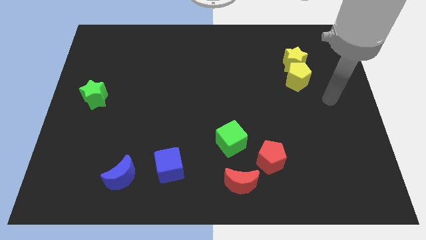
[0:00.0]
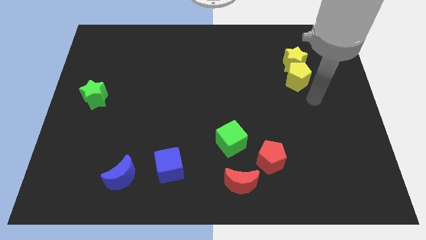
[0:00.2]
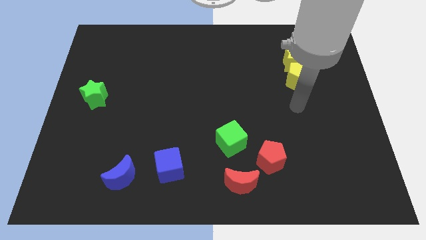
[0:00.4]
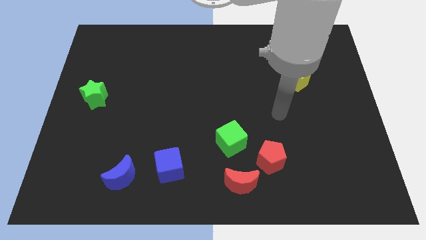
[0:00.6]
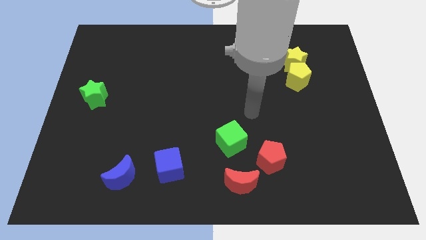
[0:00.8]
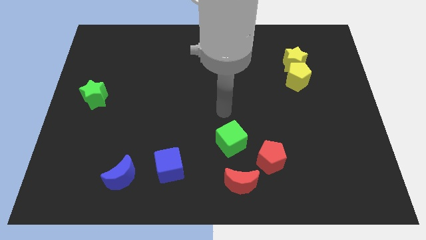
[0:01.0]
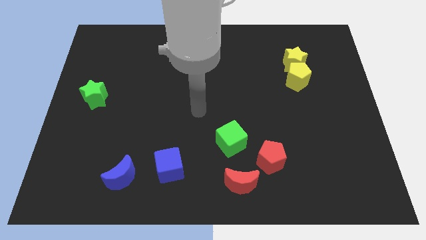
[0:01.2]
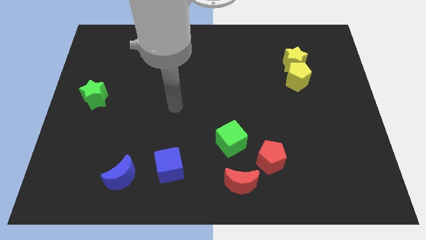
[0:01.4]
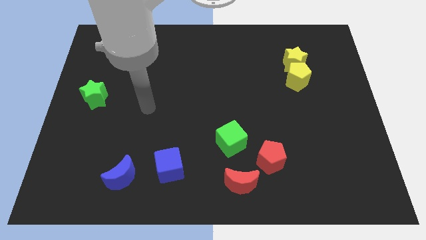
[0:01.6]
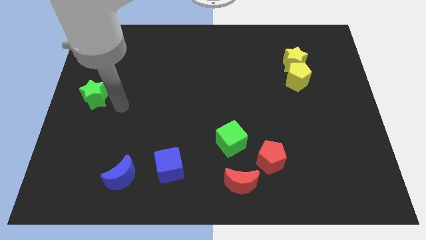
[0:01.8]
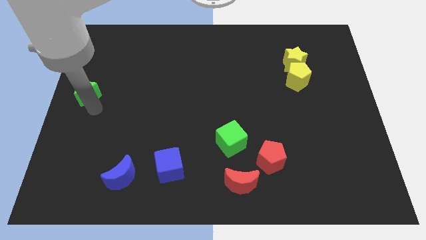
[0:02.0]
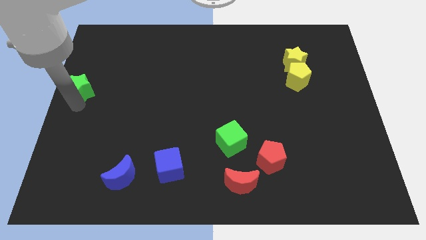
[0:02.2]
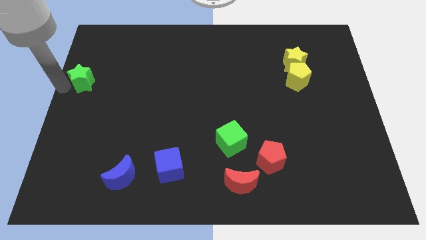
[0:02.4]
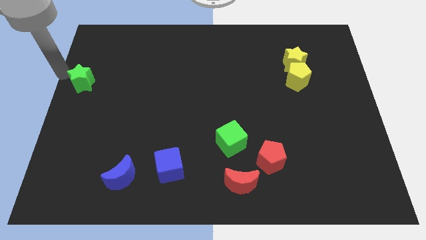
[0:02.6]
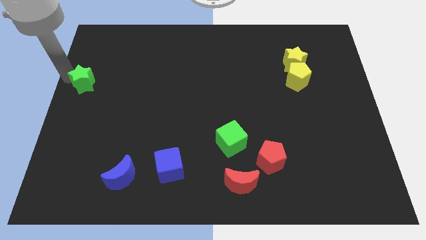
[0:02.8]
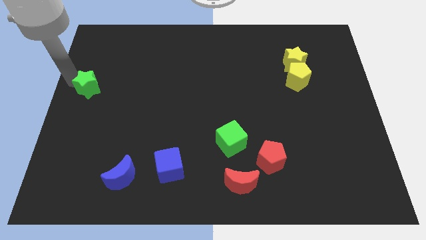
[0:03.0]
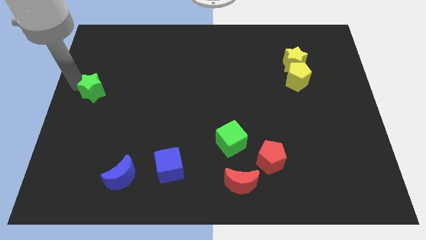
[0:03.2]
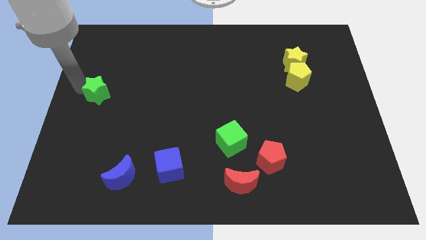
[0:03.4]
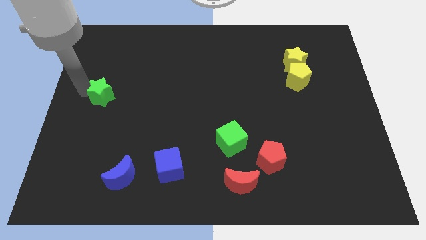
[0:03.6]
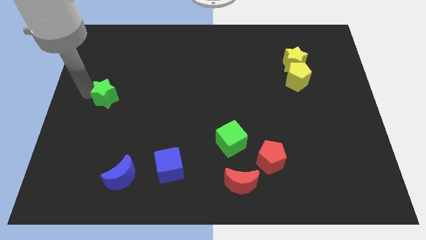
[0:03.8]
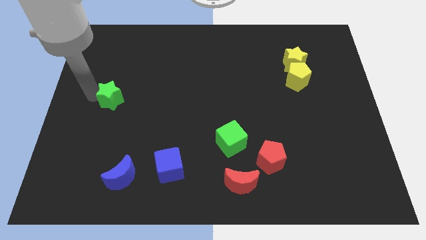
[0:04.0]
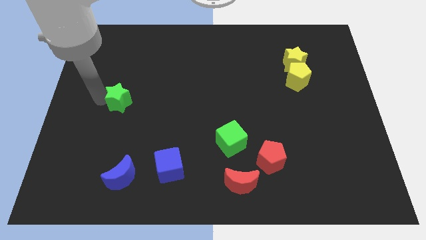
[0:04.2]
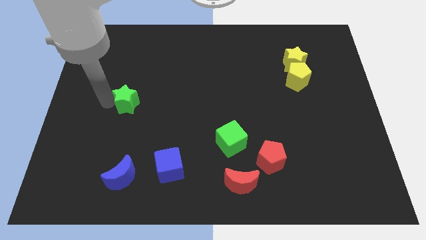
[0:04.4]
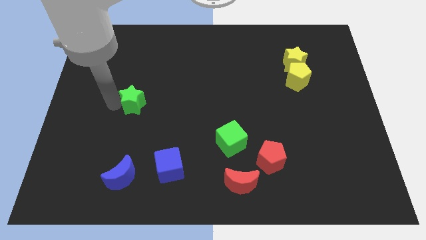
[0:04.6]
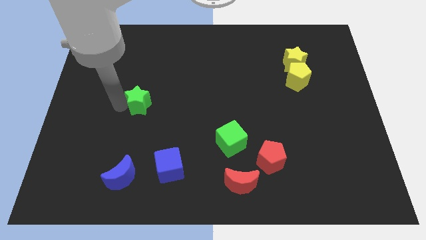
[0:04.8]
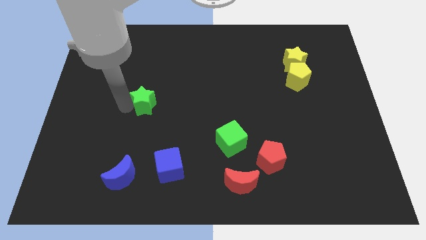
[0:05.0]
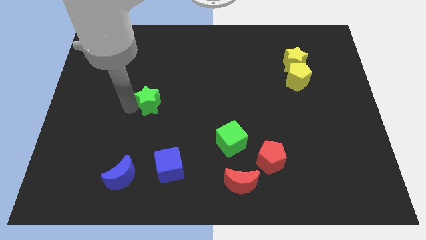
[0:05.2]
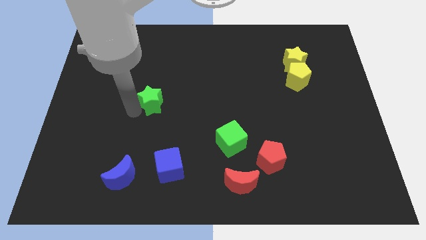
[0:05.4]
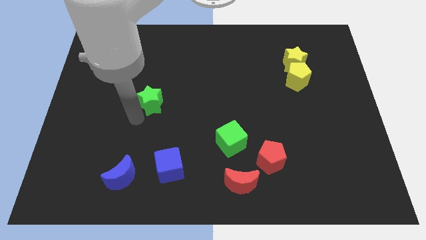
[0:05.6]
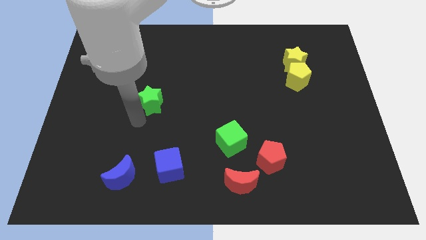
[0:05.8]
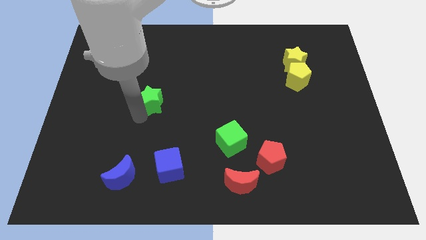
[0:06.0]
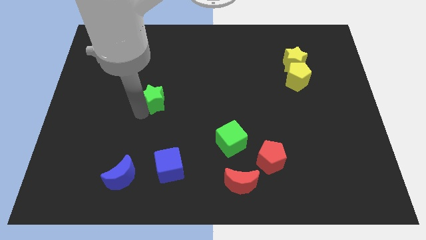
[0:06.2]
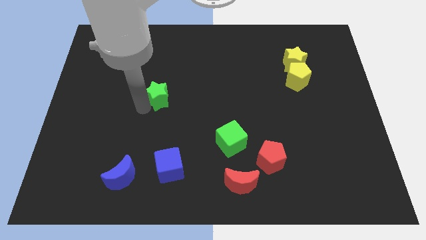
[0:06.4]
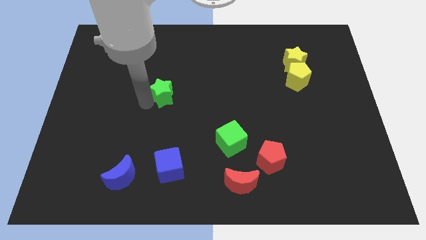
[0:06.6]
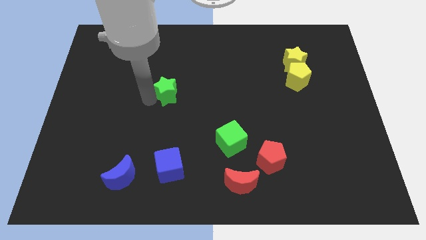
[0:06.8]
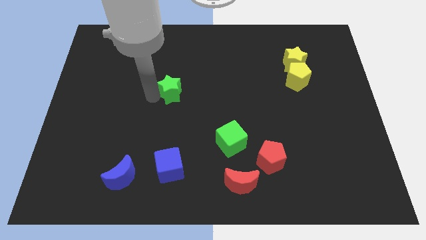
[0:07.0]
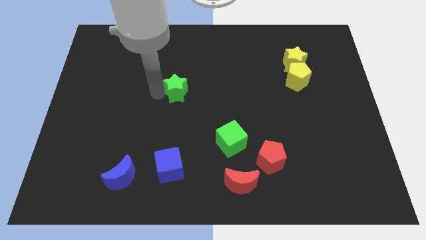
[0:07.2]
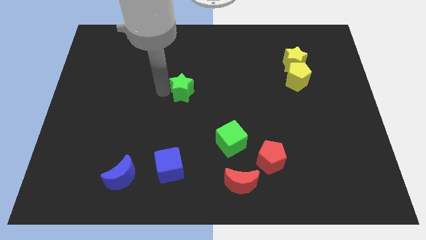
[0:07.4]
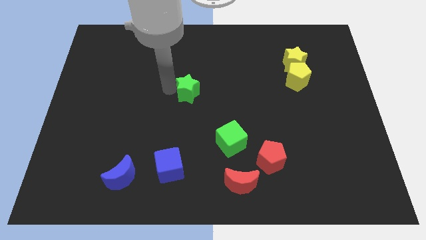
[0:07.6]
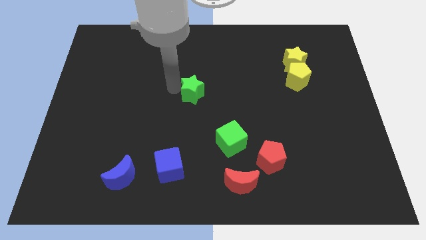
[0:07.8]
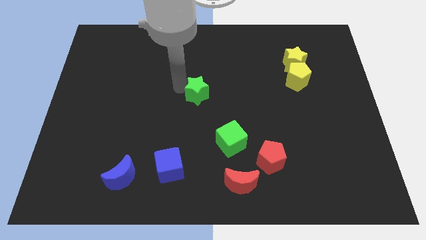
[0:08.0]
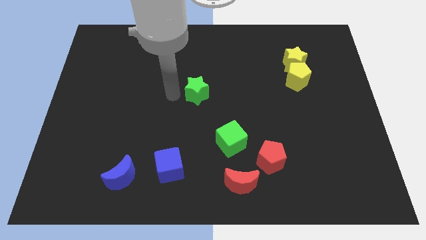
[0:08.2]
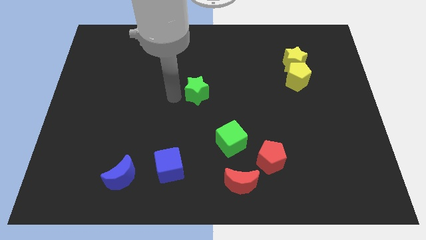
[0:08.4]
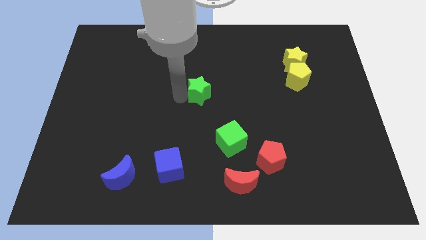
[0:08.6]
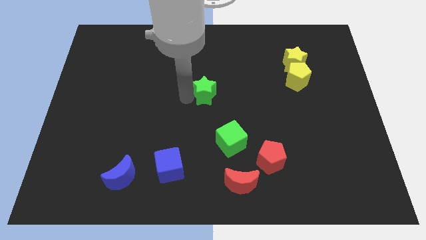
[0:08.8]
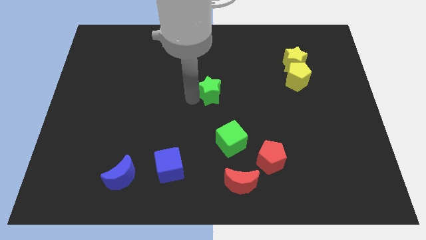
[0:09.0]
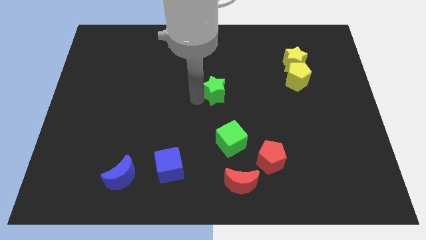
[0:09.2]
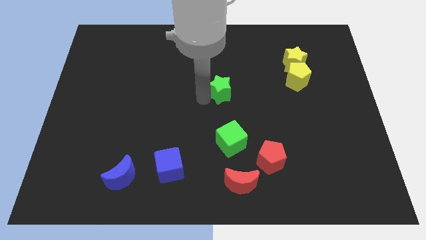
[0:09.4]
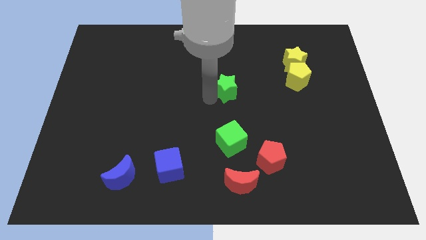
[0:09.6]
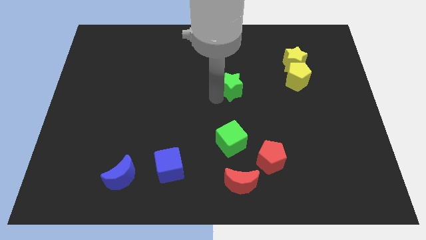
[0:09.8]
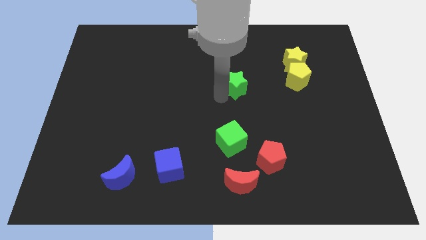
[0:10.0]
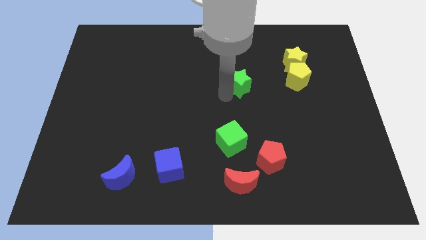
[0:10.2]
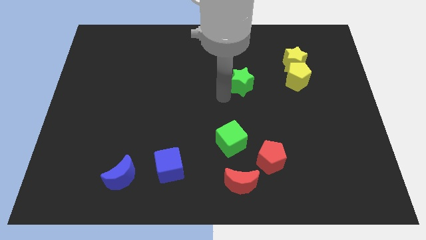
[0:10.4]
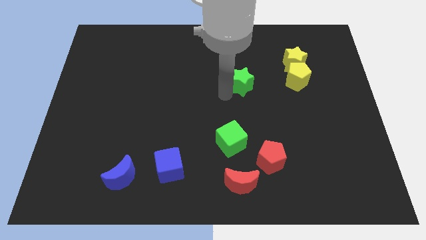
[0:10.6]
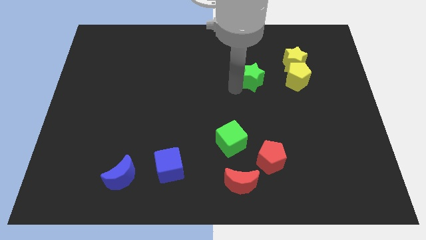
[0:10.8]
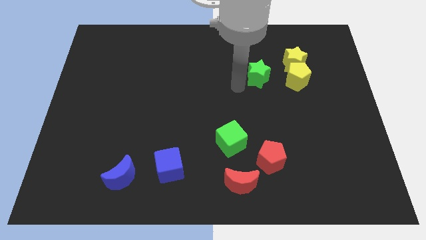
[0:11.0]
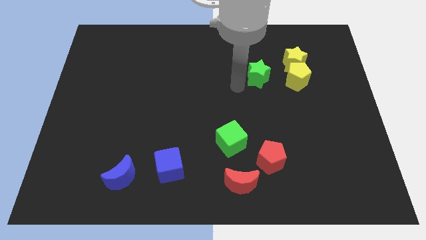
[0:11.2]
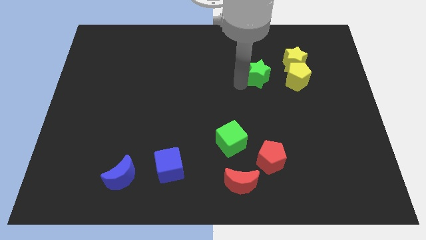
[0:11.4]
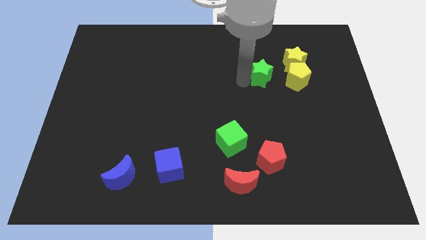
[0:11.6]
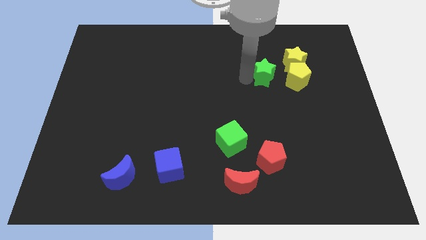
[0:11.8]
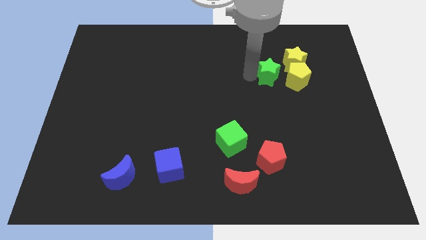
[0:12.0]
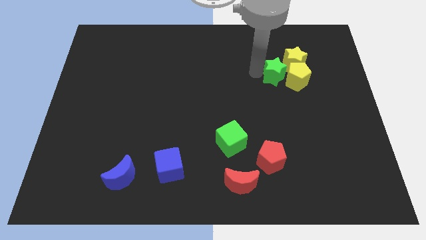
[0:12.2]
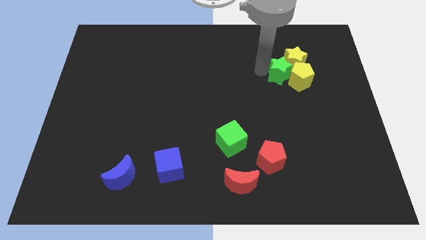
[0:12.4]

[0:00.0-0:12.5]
move the green star close to the yellow star

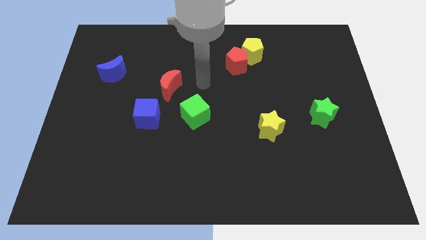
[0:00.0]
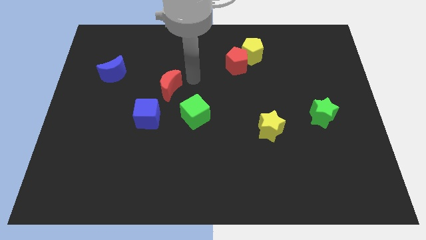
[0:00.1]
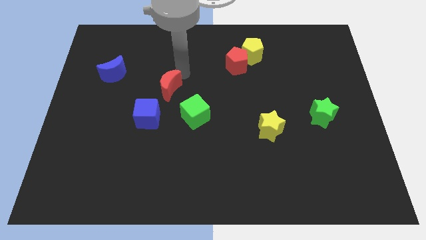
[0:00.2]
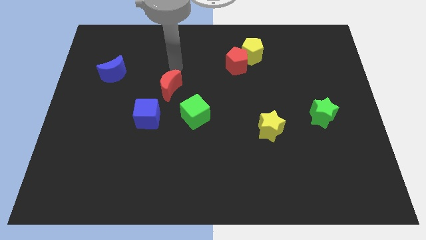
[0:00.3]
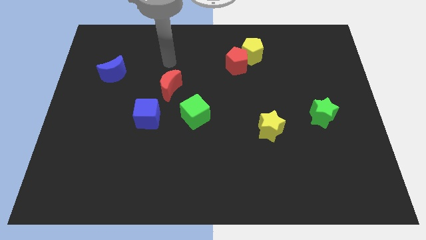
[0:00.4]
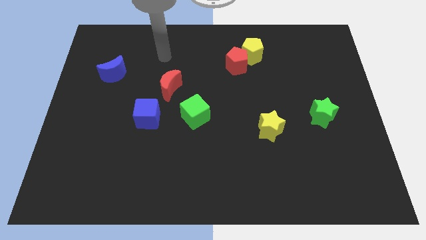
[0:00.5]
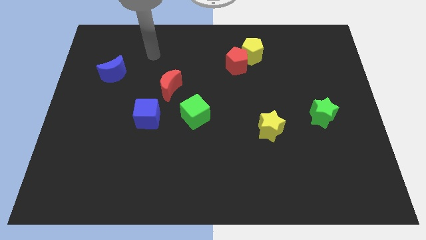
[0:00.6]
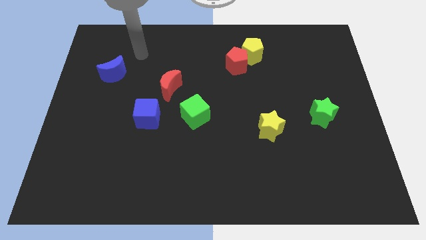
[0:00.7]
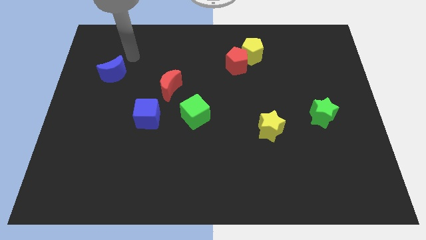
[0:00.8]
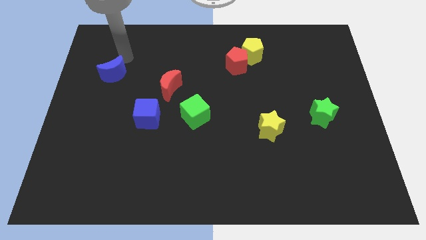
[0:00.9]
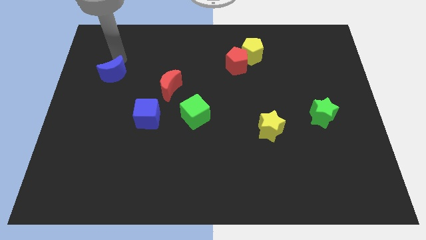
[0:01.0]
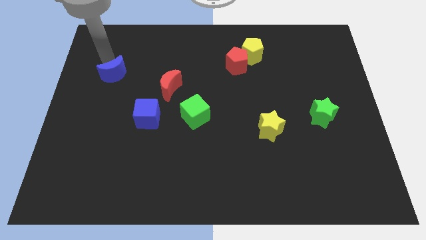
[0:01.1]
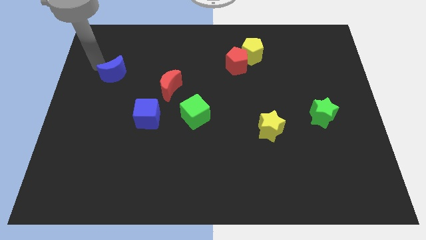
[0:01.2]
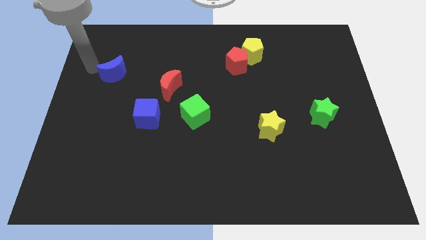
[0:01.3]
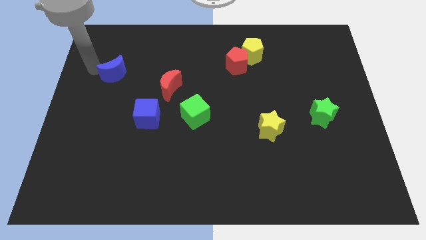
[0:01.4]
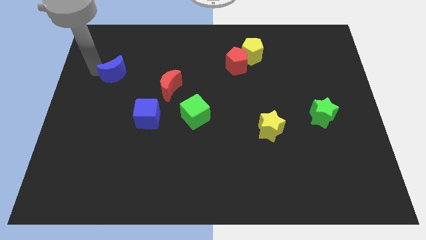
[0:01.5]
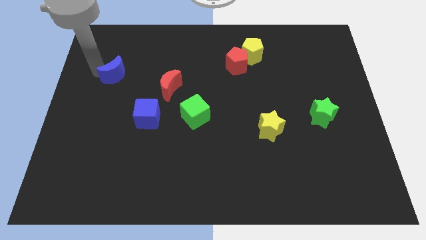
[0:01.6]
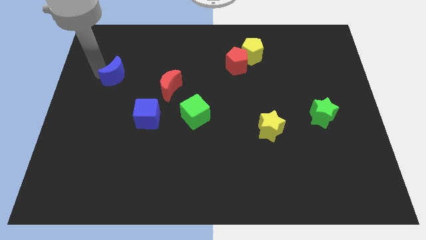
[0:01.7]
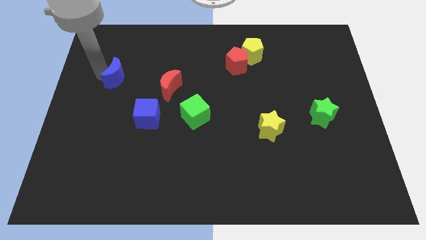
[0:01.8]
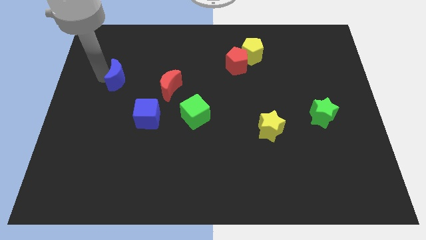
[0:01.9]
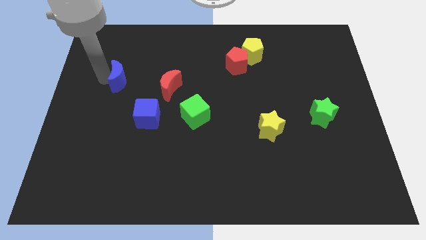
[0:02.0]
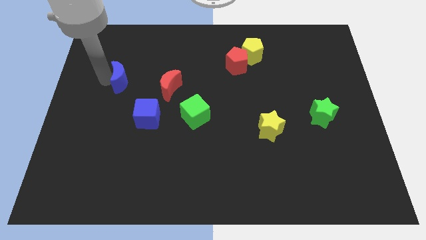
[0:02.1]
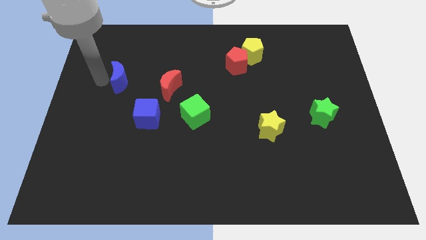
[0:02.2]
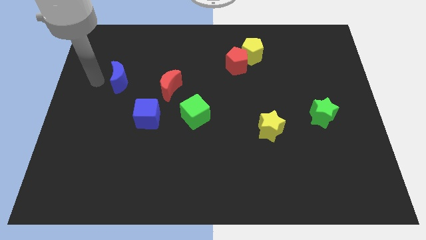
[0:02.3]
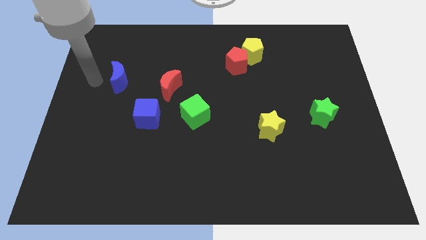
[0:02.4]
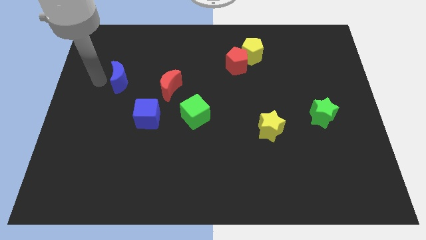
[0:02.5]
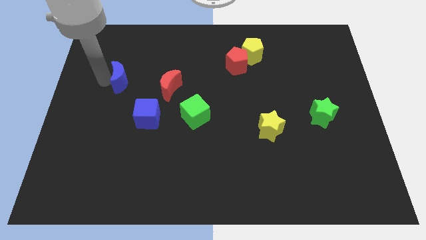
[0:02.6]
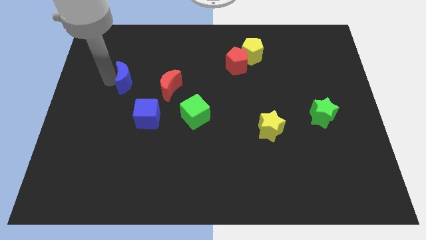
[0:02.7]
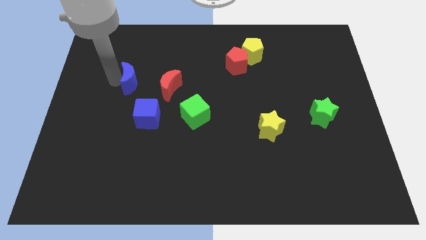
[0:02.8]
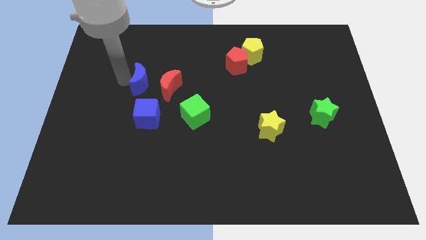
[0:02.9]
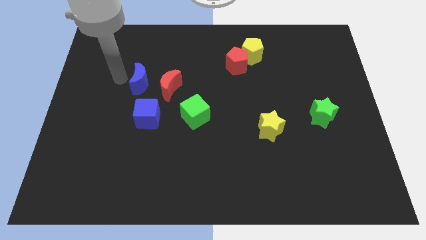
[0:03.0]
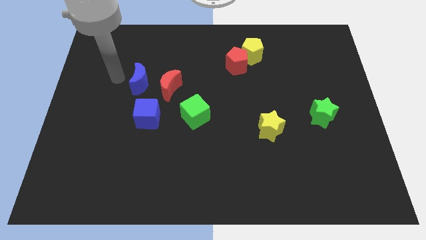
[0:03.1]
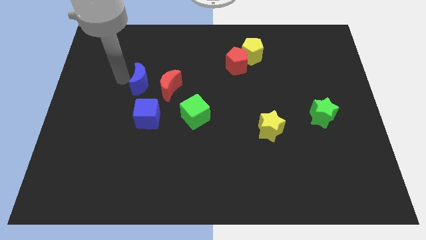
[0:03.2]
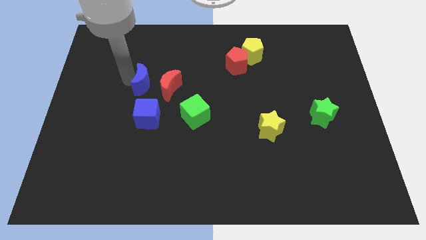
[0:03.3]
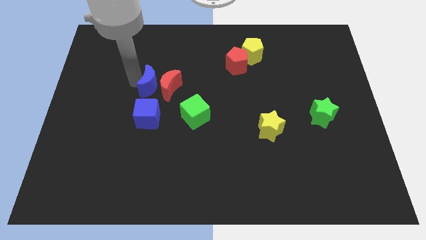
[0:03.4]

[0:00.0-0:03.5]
push the blue moon to the red moon
